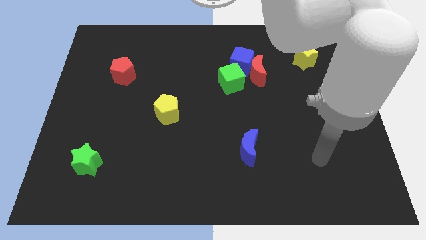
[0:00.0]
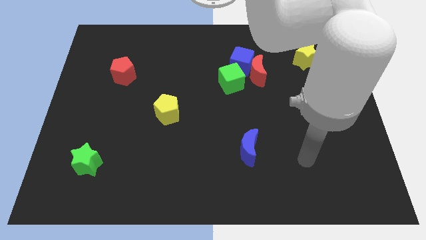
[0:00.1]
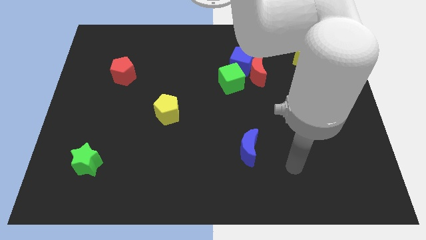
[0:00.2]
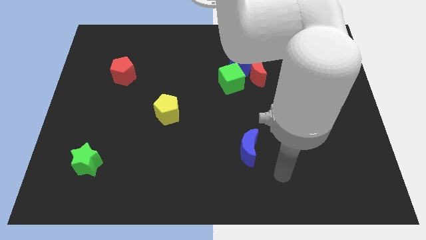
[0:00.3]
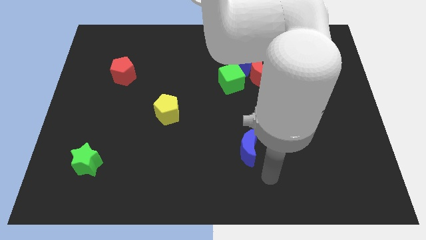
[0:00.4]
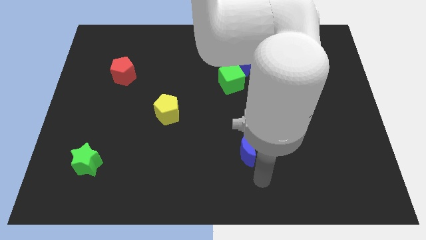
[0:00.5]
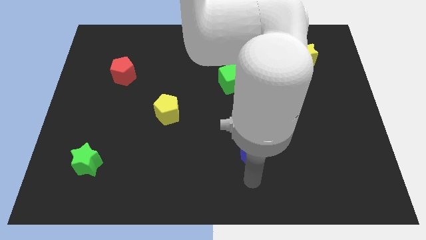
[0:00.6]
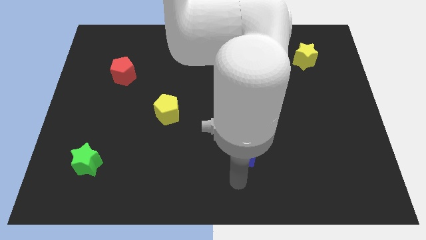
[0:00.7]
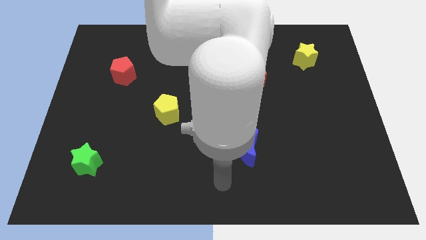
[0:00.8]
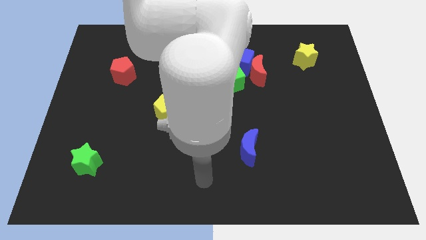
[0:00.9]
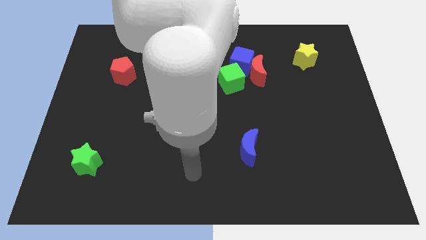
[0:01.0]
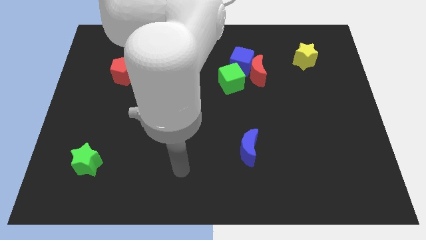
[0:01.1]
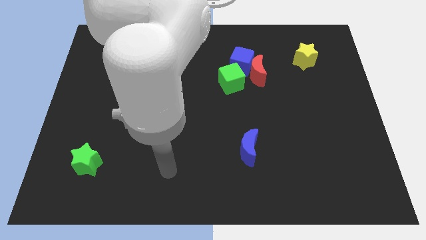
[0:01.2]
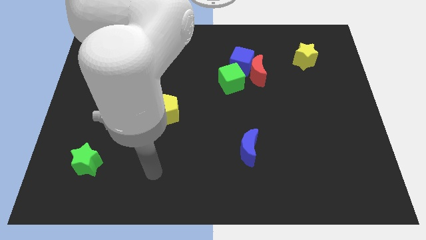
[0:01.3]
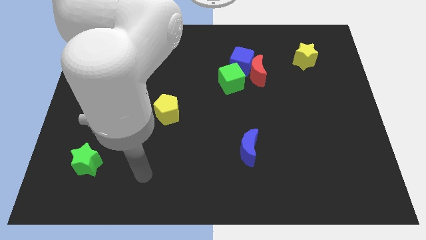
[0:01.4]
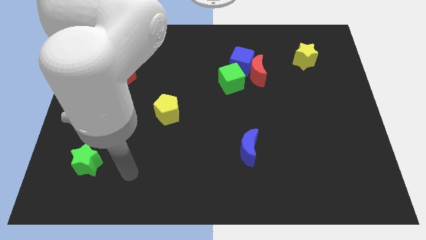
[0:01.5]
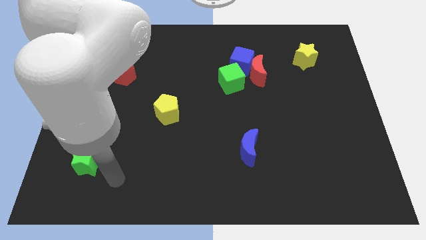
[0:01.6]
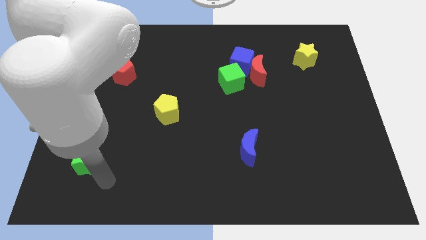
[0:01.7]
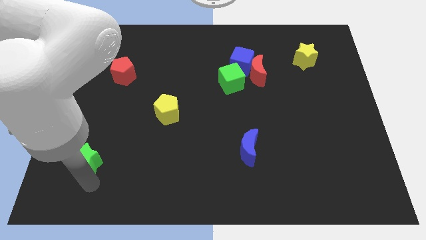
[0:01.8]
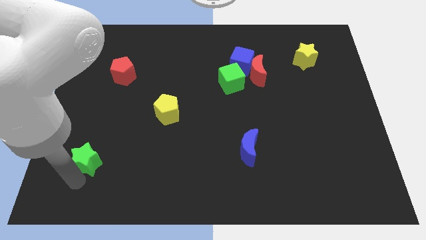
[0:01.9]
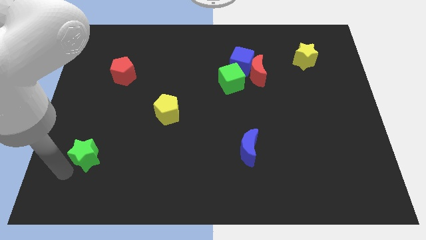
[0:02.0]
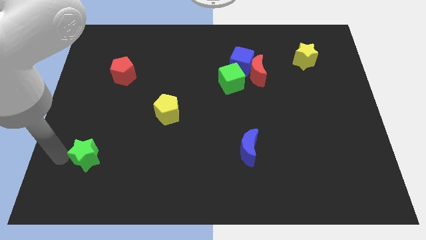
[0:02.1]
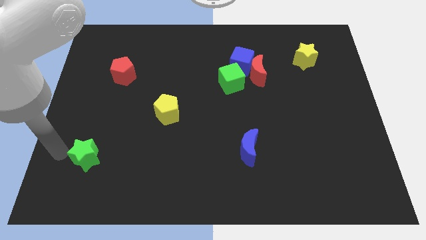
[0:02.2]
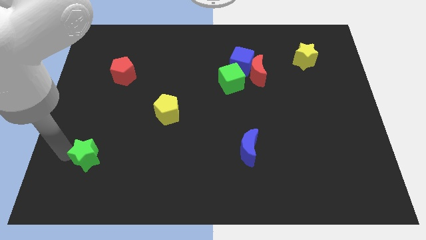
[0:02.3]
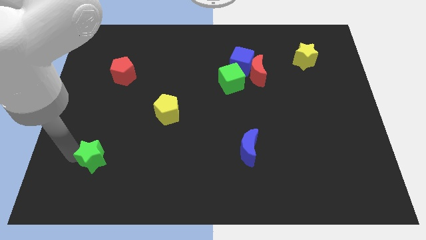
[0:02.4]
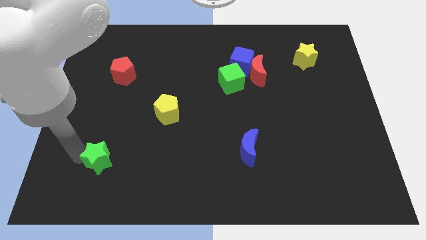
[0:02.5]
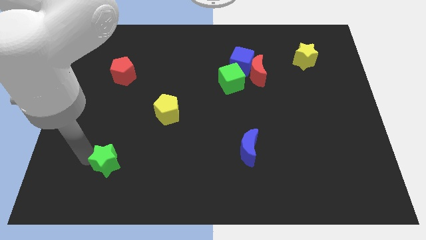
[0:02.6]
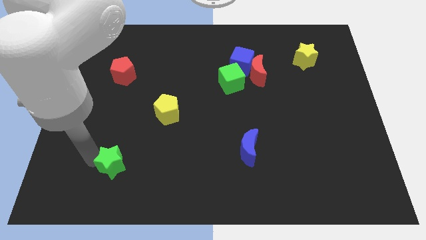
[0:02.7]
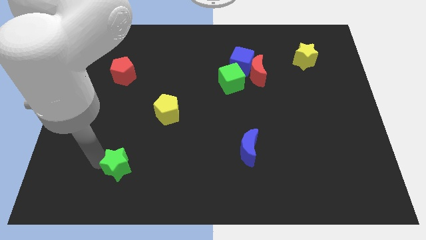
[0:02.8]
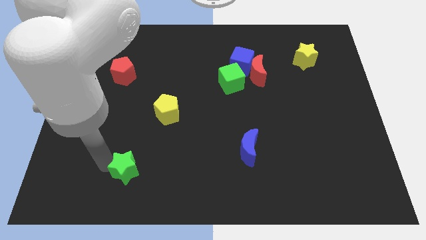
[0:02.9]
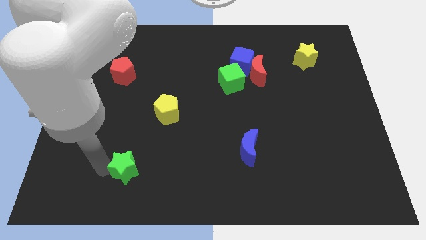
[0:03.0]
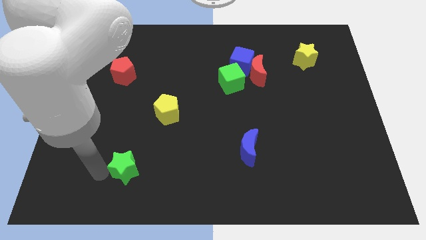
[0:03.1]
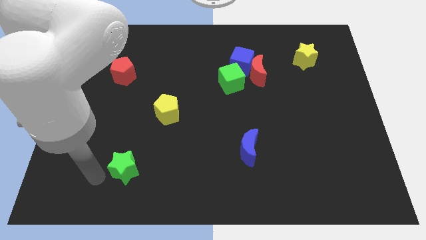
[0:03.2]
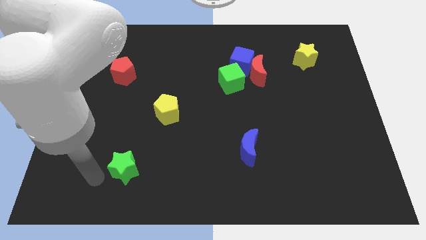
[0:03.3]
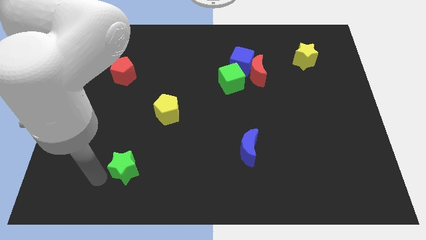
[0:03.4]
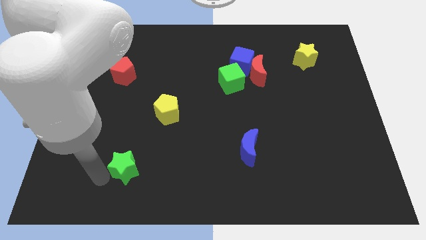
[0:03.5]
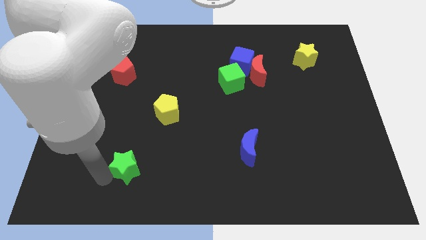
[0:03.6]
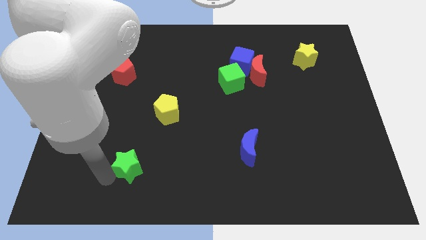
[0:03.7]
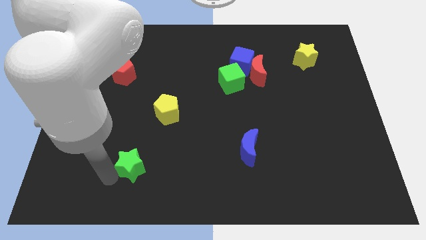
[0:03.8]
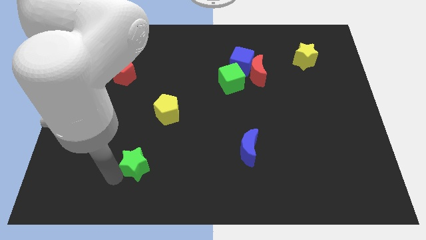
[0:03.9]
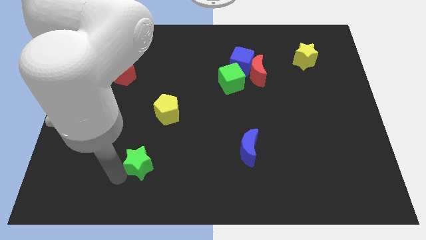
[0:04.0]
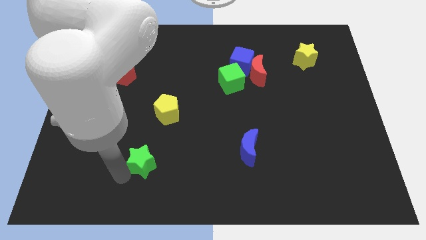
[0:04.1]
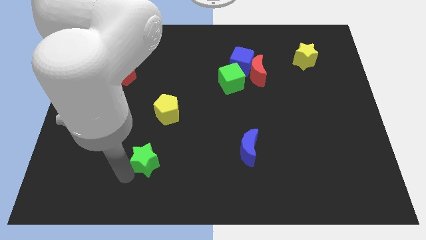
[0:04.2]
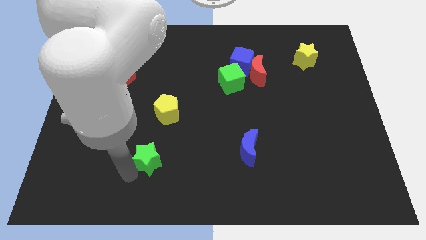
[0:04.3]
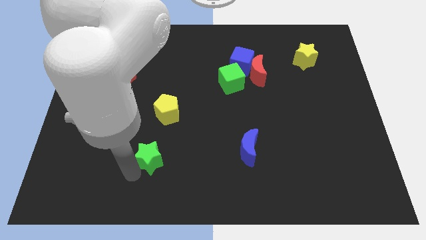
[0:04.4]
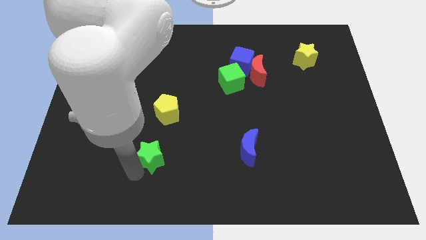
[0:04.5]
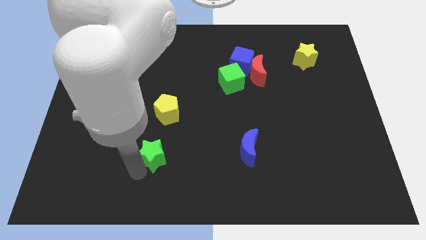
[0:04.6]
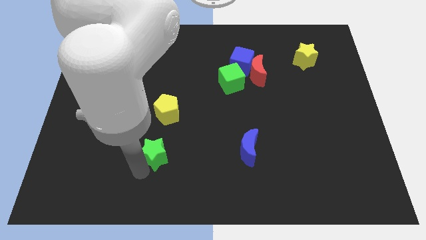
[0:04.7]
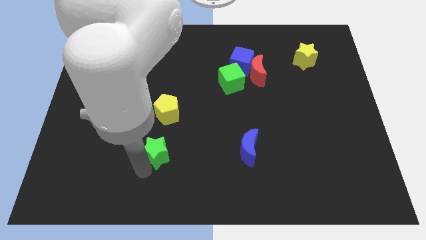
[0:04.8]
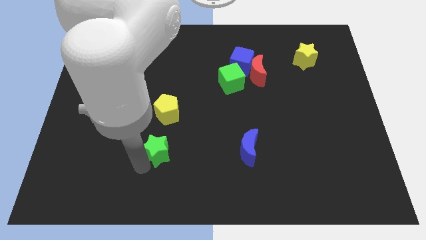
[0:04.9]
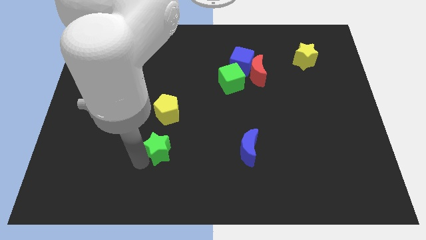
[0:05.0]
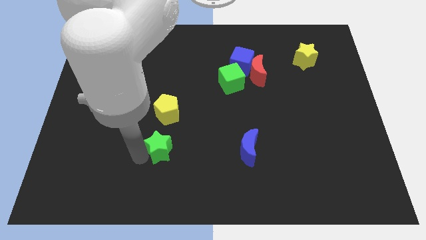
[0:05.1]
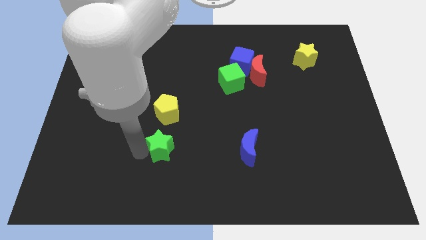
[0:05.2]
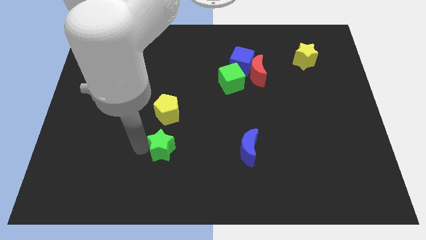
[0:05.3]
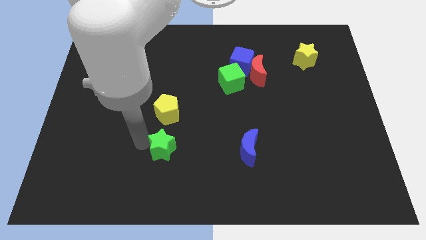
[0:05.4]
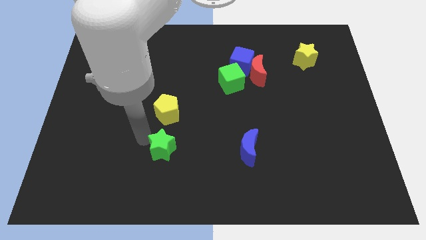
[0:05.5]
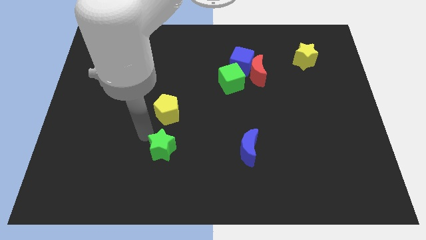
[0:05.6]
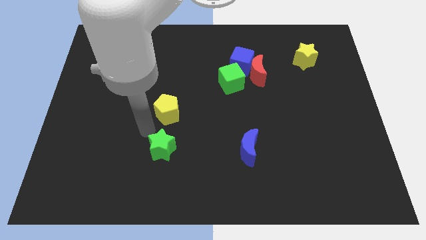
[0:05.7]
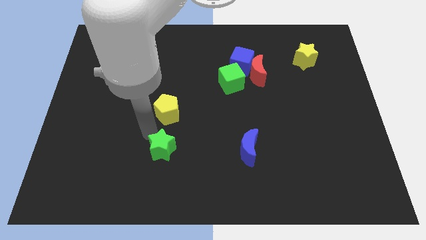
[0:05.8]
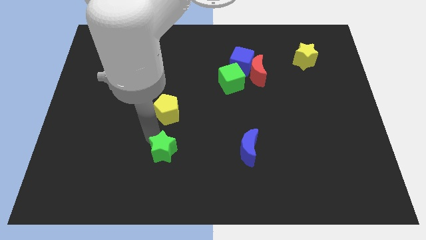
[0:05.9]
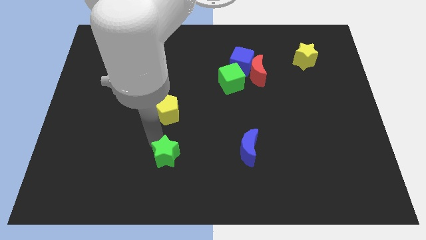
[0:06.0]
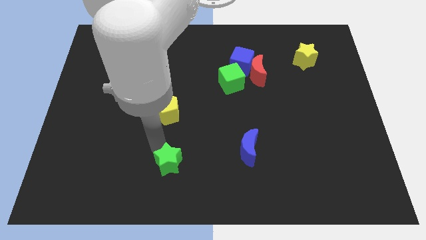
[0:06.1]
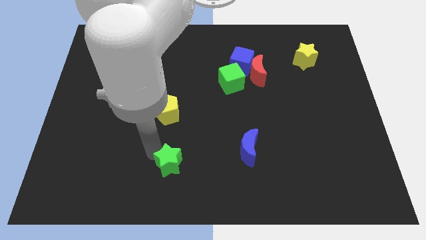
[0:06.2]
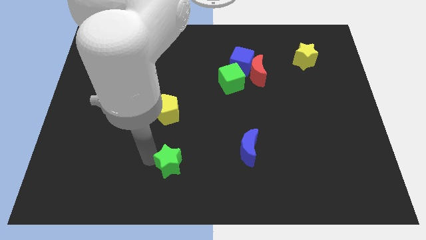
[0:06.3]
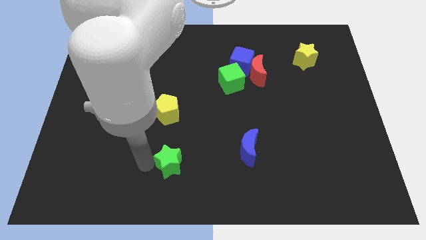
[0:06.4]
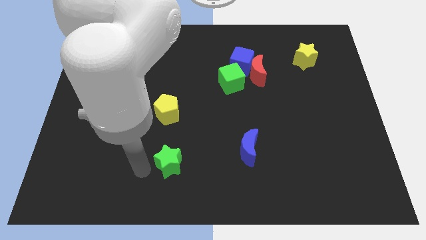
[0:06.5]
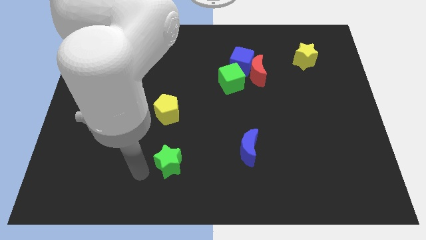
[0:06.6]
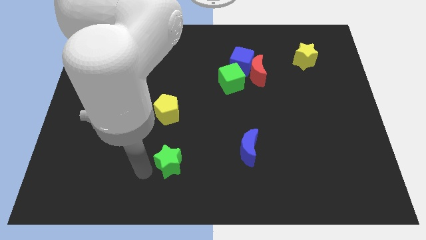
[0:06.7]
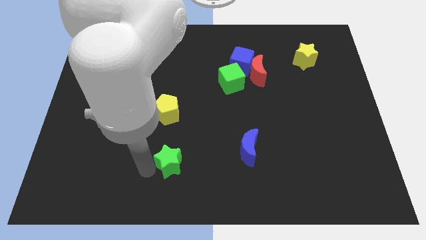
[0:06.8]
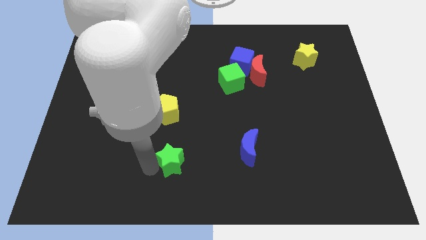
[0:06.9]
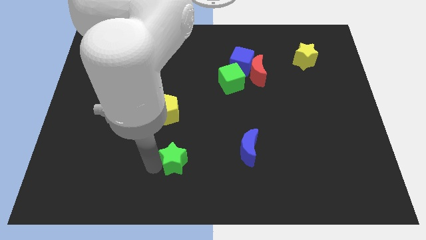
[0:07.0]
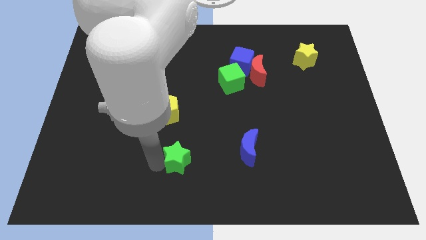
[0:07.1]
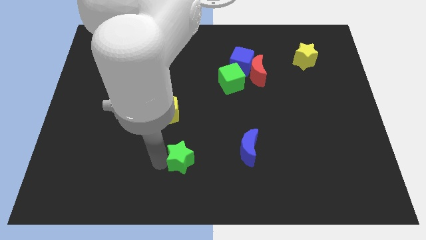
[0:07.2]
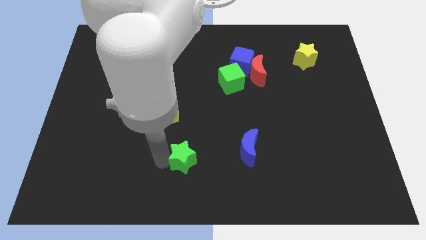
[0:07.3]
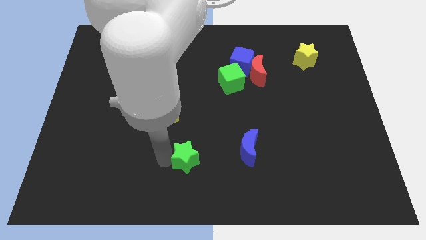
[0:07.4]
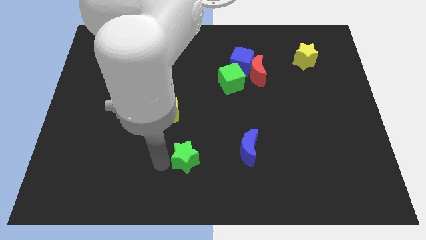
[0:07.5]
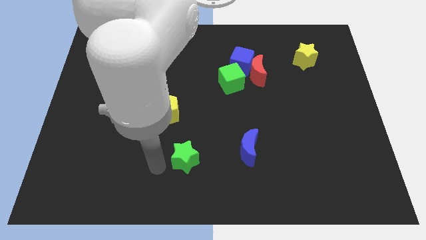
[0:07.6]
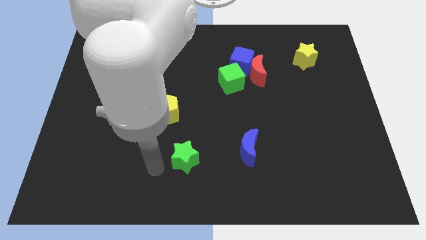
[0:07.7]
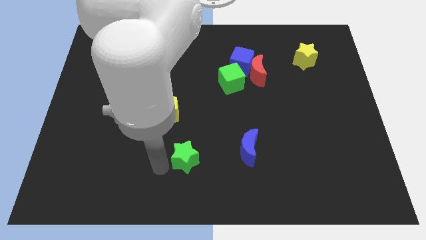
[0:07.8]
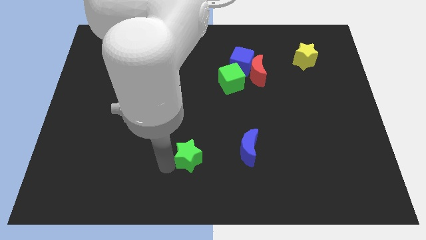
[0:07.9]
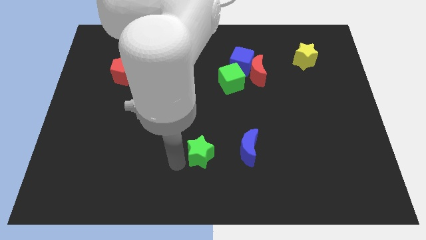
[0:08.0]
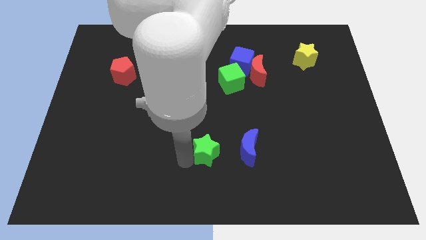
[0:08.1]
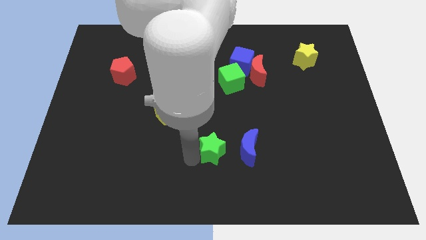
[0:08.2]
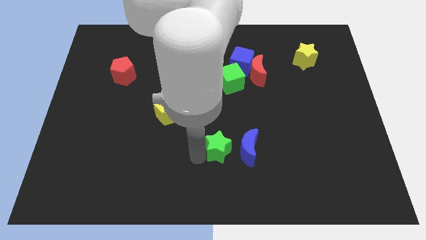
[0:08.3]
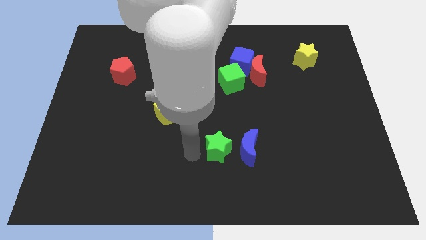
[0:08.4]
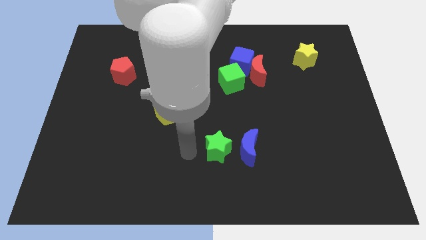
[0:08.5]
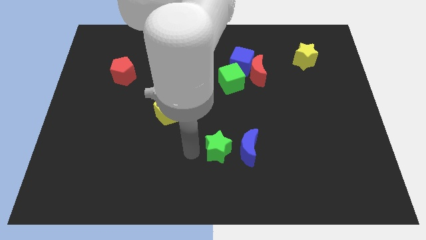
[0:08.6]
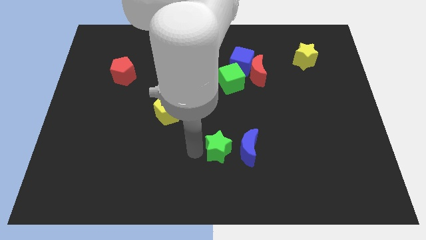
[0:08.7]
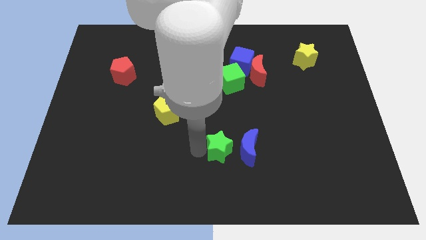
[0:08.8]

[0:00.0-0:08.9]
move the green star close to the blue moon
